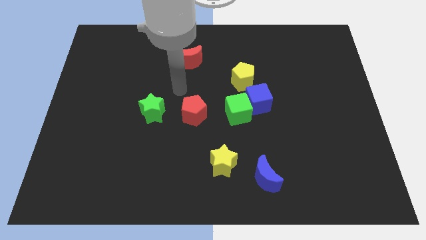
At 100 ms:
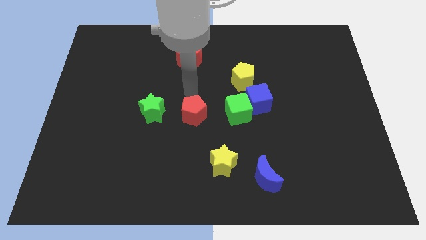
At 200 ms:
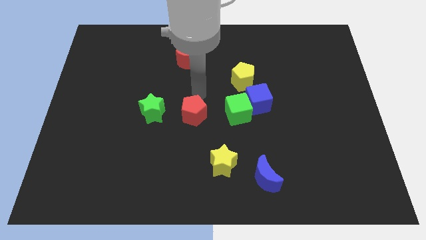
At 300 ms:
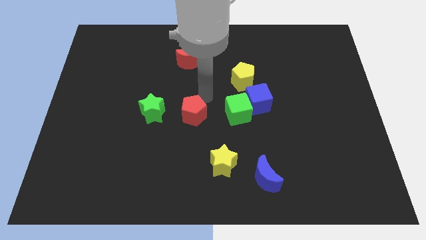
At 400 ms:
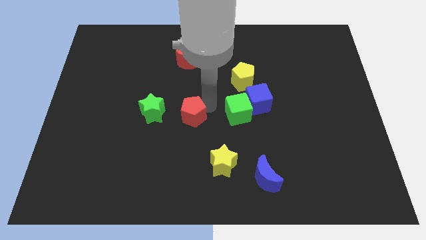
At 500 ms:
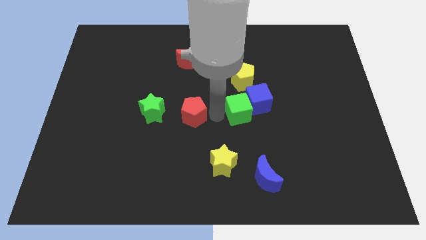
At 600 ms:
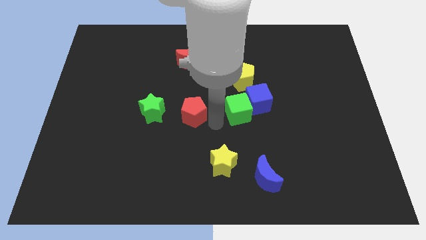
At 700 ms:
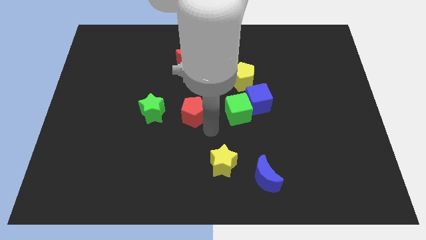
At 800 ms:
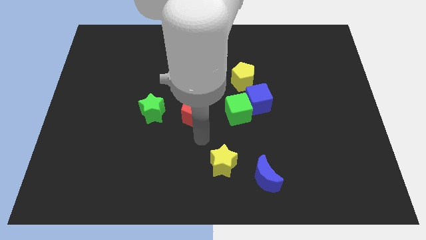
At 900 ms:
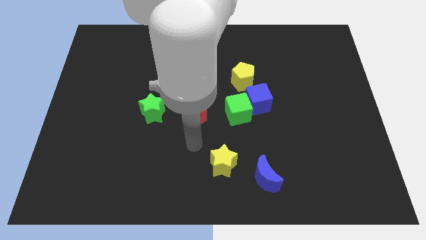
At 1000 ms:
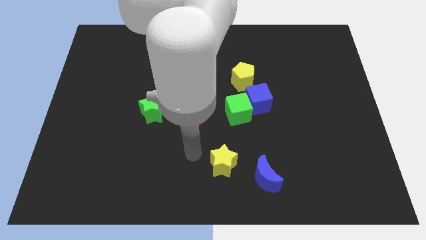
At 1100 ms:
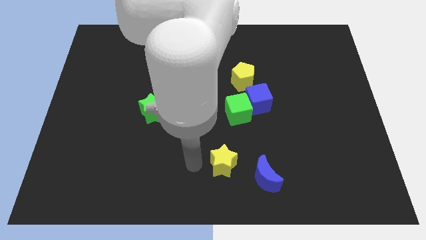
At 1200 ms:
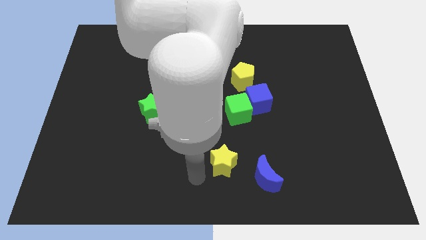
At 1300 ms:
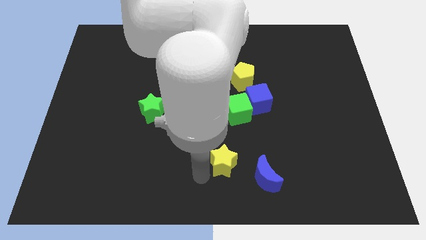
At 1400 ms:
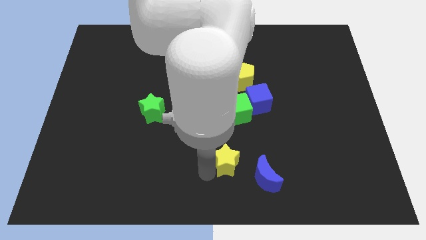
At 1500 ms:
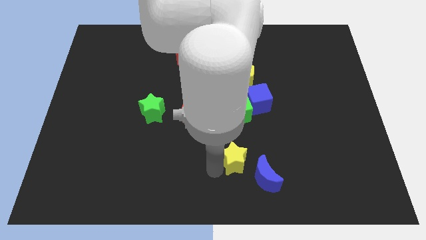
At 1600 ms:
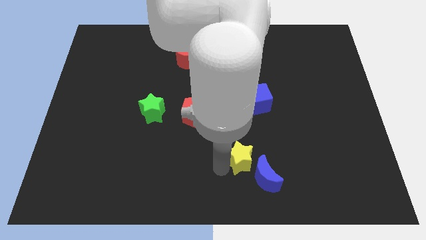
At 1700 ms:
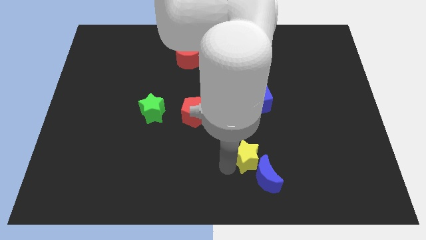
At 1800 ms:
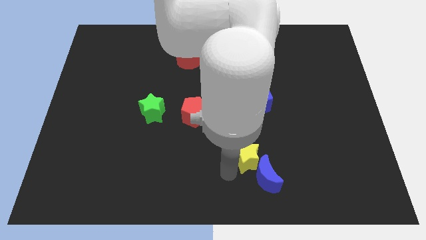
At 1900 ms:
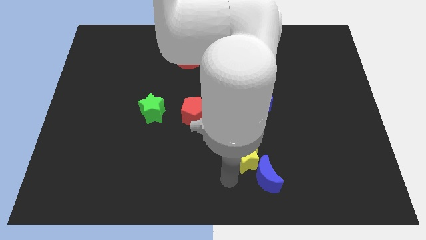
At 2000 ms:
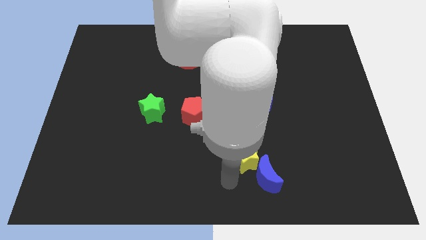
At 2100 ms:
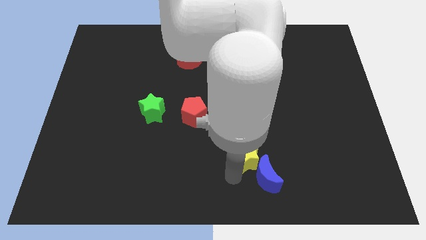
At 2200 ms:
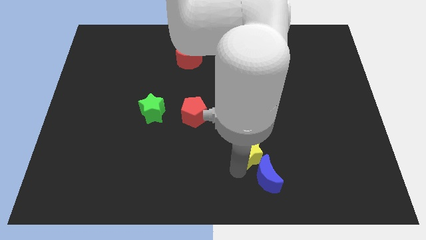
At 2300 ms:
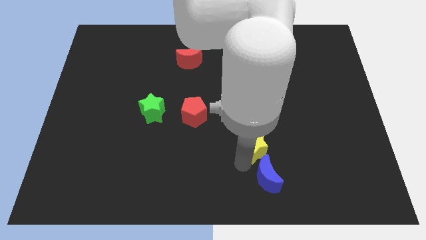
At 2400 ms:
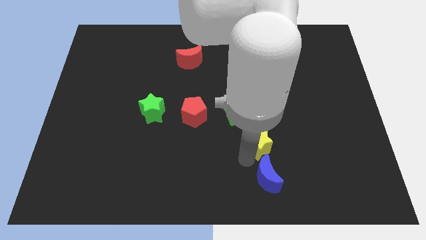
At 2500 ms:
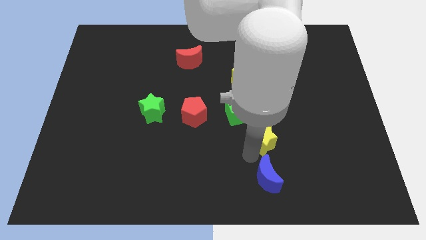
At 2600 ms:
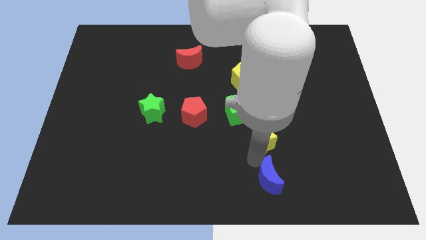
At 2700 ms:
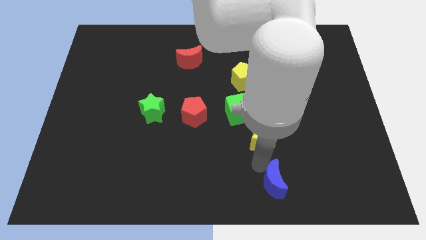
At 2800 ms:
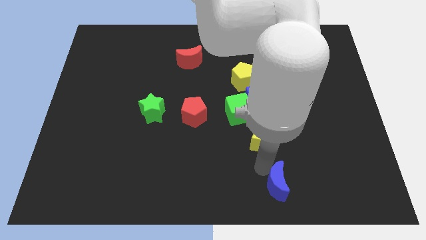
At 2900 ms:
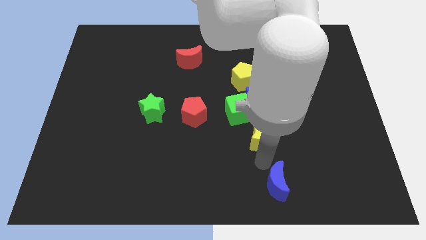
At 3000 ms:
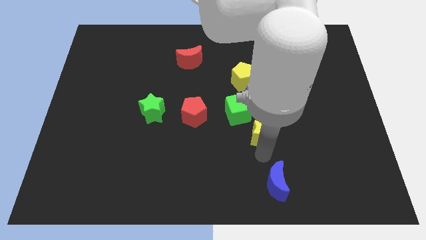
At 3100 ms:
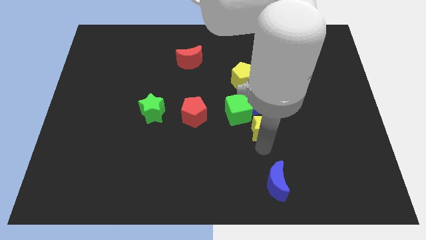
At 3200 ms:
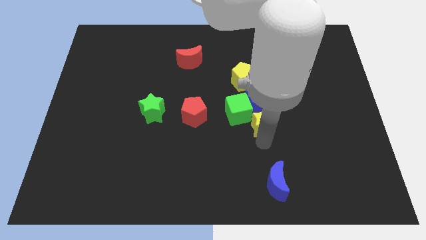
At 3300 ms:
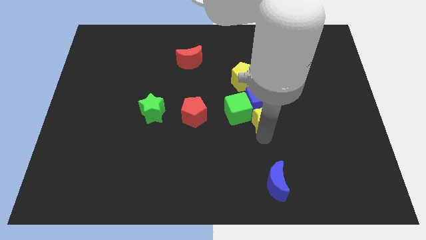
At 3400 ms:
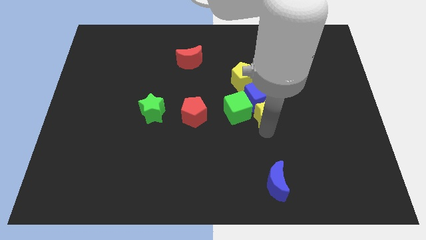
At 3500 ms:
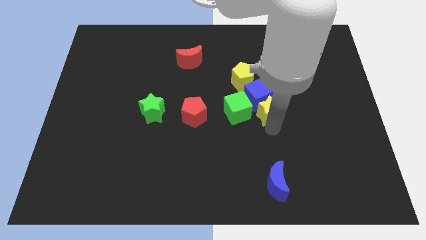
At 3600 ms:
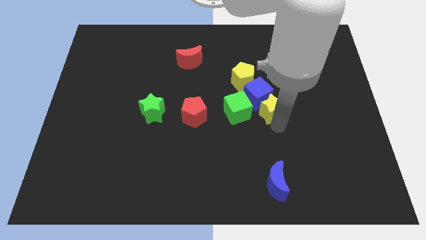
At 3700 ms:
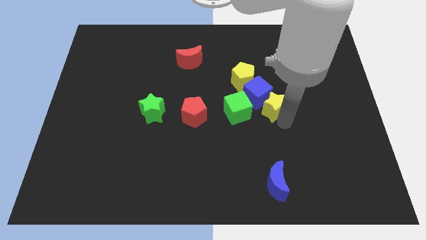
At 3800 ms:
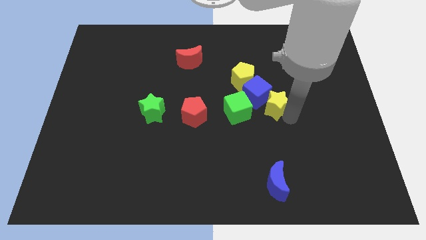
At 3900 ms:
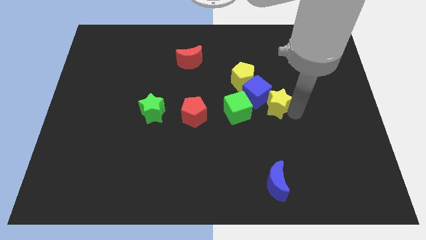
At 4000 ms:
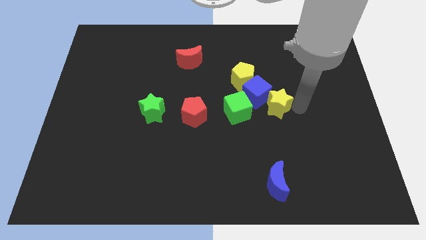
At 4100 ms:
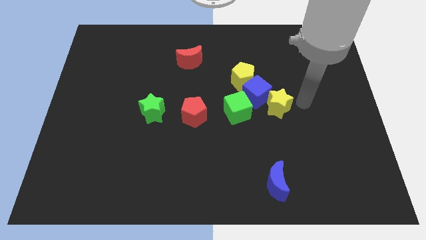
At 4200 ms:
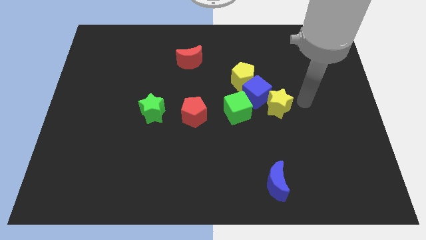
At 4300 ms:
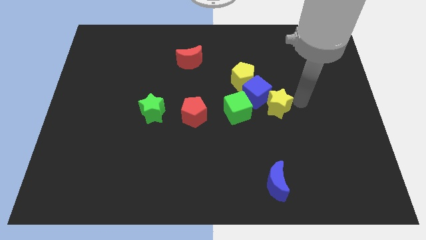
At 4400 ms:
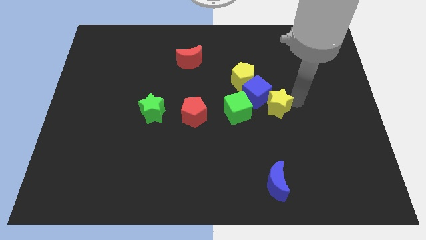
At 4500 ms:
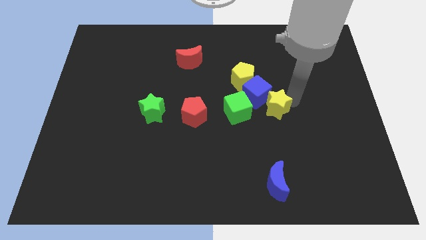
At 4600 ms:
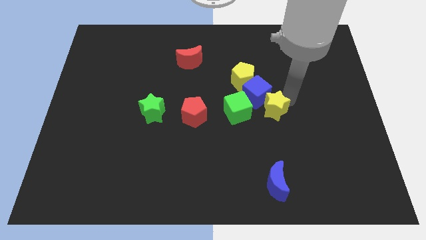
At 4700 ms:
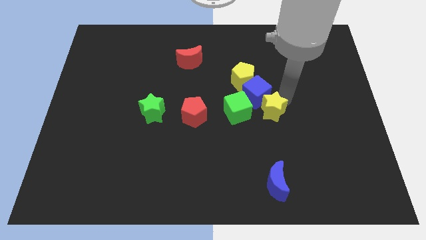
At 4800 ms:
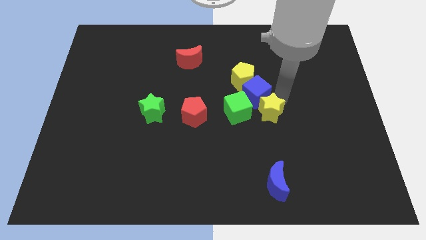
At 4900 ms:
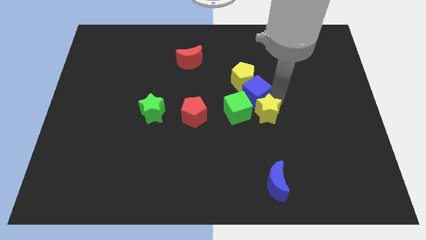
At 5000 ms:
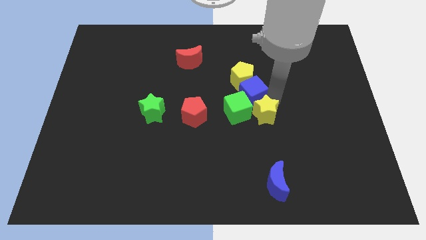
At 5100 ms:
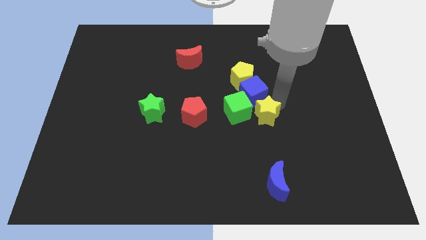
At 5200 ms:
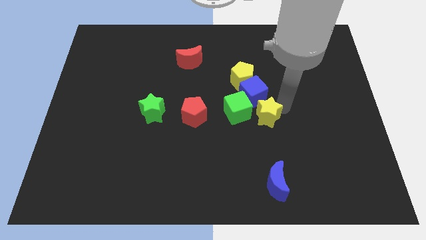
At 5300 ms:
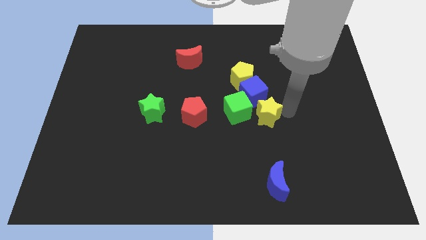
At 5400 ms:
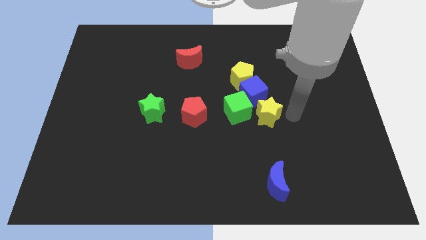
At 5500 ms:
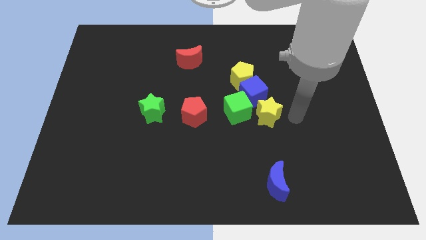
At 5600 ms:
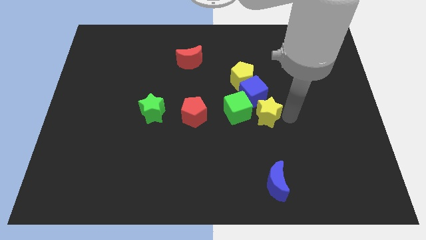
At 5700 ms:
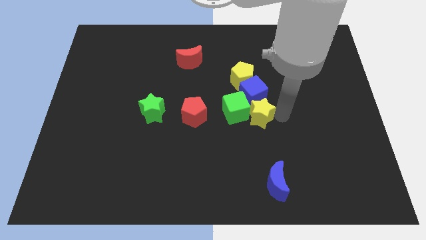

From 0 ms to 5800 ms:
put the yellow star to the green cube

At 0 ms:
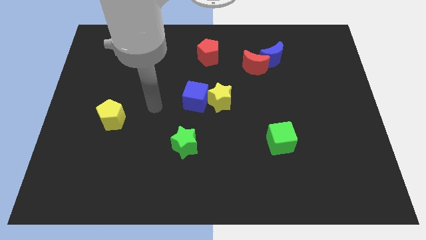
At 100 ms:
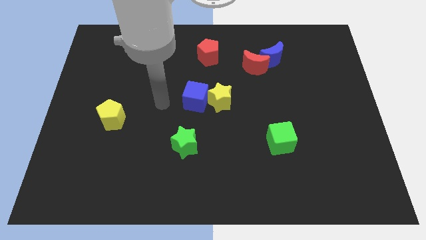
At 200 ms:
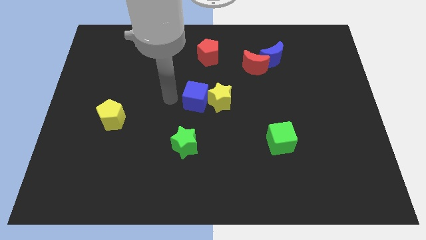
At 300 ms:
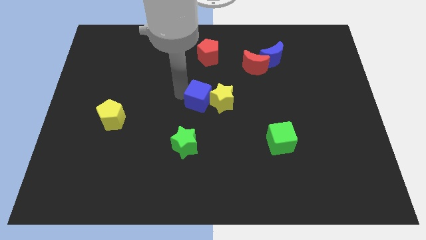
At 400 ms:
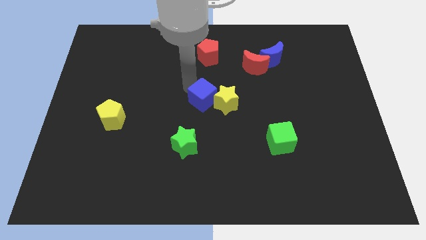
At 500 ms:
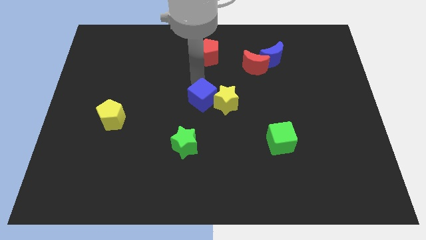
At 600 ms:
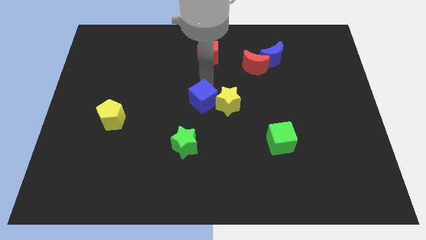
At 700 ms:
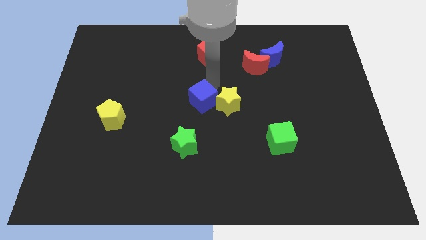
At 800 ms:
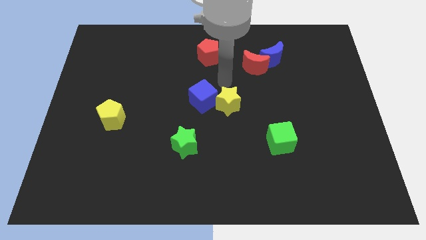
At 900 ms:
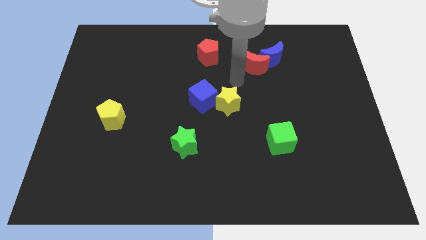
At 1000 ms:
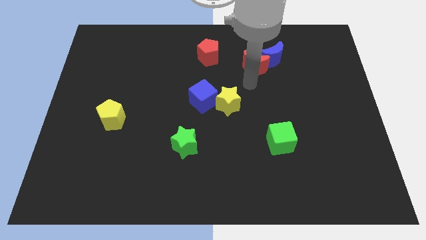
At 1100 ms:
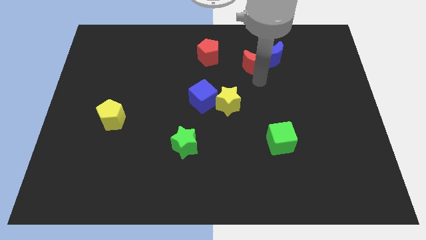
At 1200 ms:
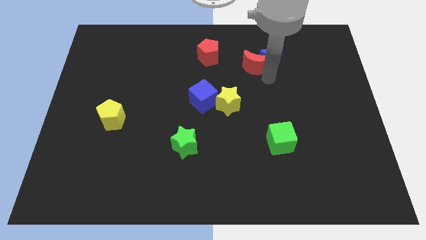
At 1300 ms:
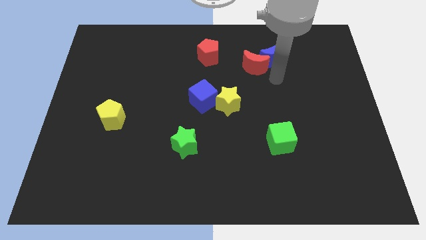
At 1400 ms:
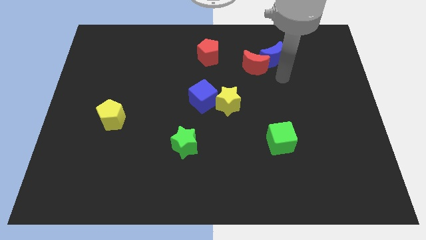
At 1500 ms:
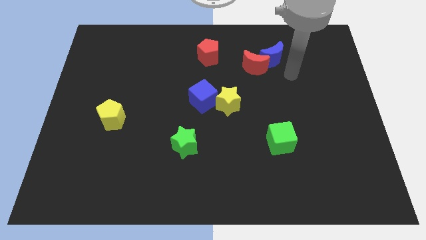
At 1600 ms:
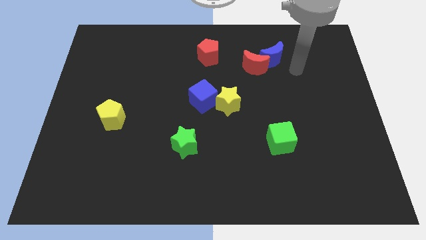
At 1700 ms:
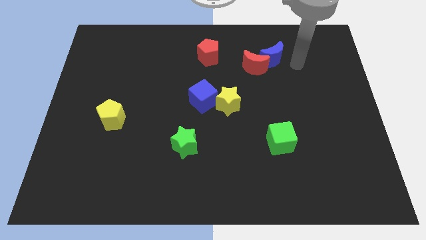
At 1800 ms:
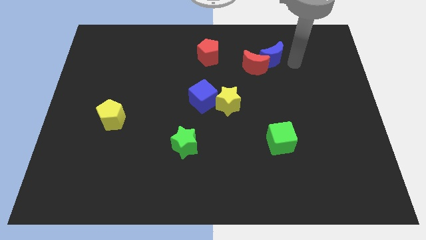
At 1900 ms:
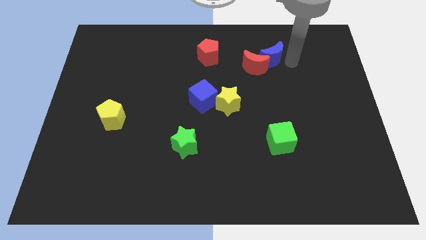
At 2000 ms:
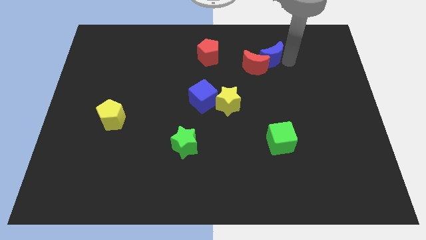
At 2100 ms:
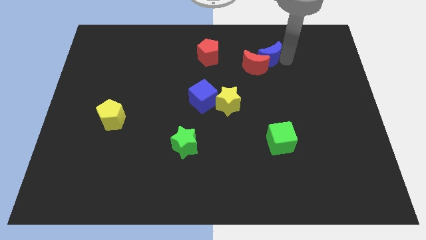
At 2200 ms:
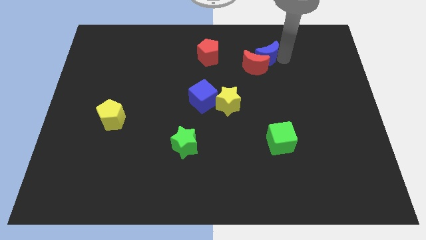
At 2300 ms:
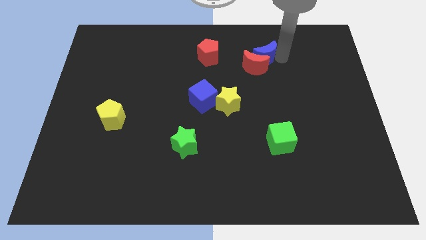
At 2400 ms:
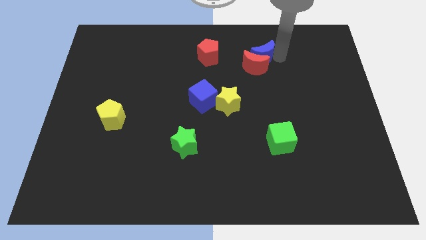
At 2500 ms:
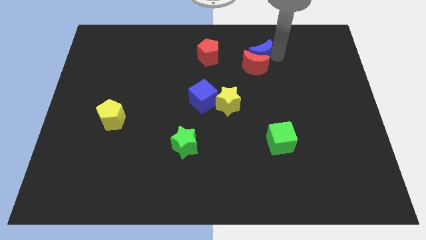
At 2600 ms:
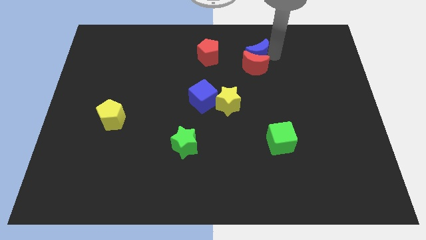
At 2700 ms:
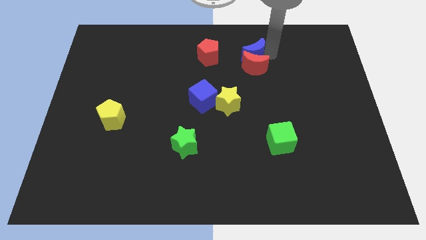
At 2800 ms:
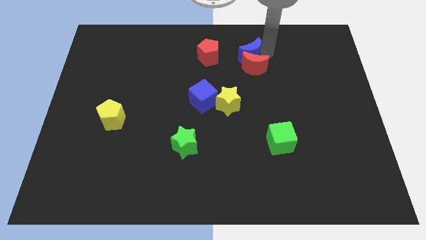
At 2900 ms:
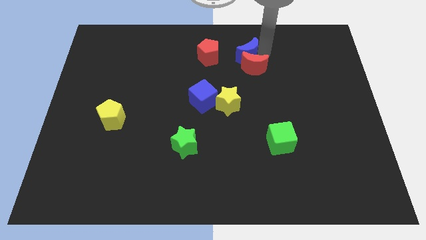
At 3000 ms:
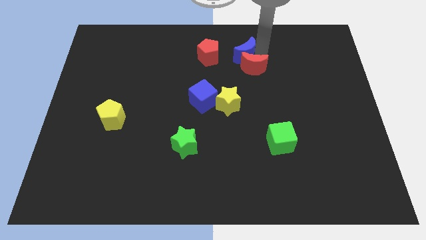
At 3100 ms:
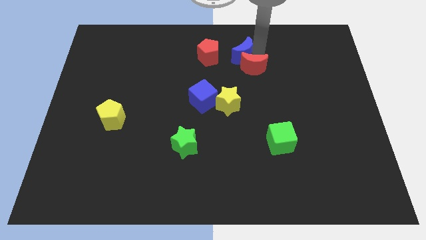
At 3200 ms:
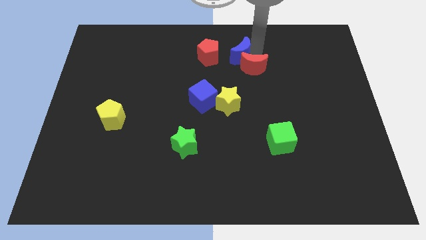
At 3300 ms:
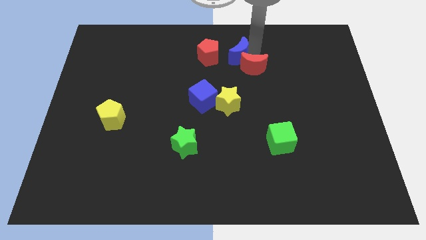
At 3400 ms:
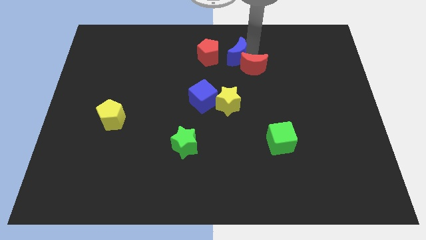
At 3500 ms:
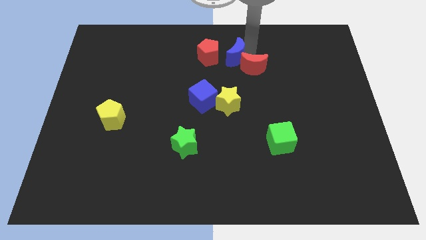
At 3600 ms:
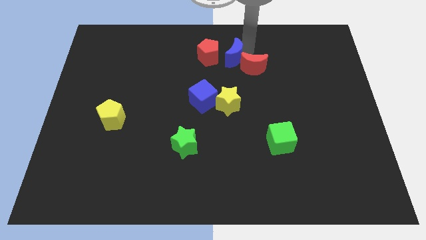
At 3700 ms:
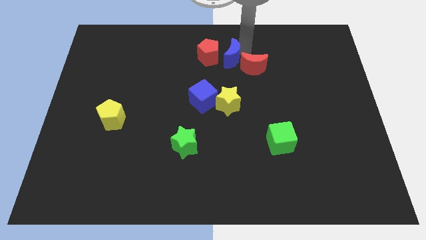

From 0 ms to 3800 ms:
move the blue moon close to the red pentagon
